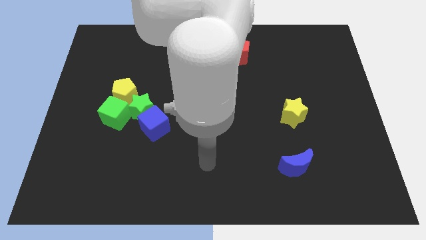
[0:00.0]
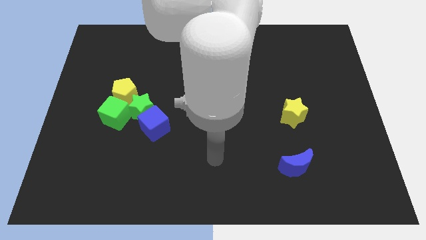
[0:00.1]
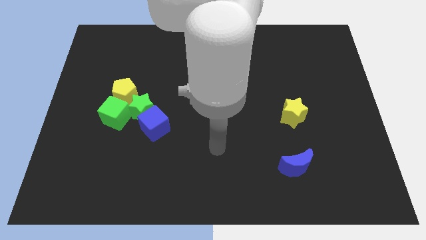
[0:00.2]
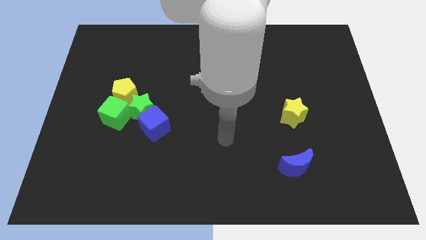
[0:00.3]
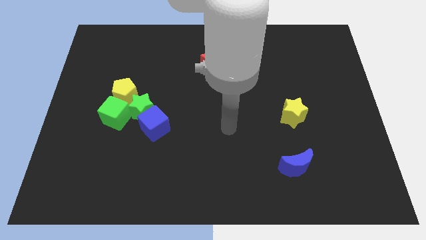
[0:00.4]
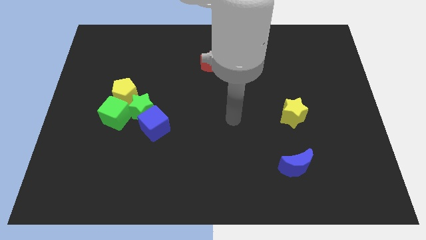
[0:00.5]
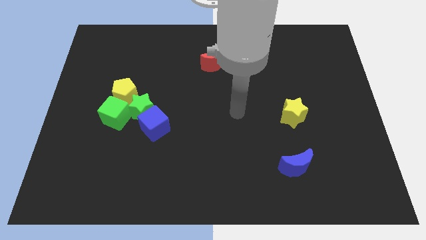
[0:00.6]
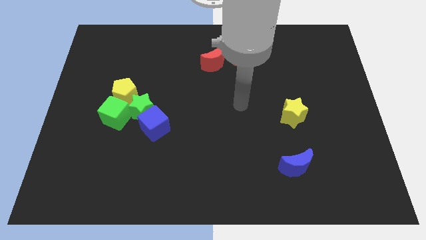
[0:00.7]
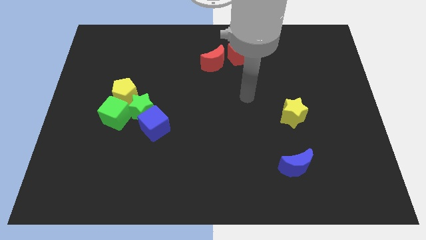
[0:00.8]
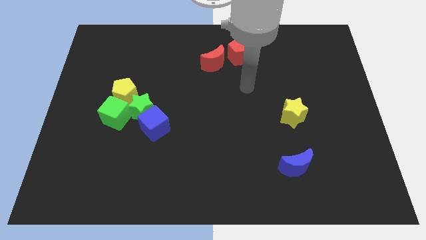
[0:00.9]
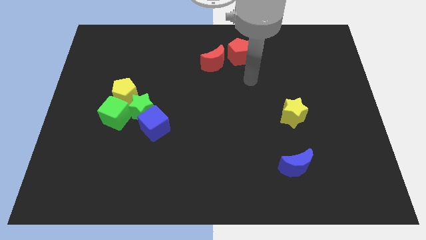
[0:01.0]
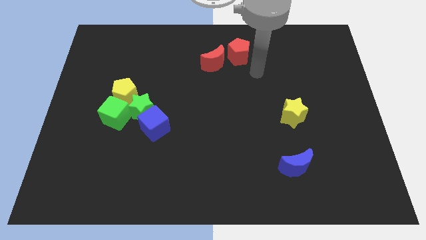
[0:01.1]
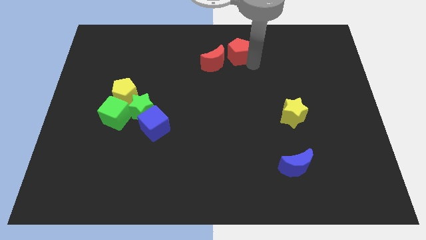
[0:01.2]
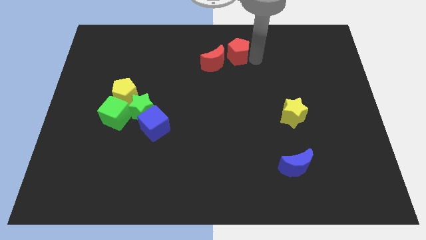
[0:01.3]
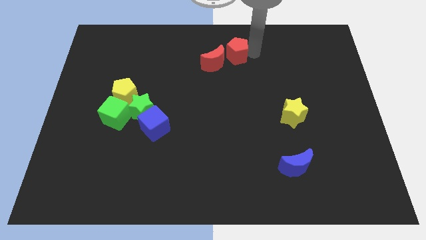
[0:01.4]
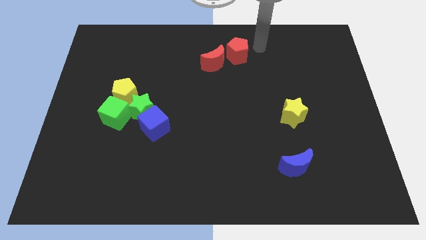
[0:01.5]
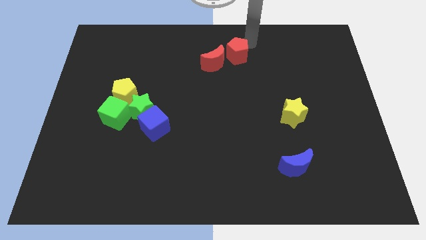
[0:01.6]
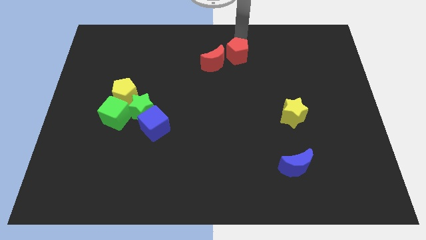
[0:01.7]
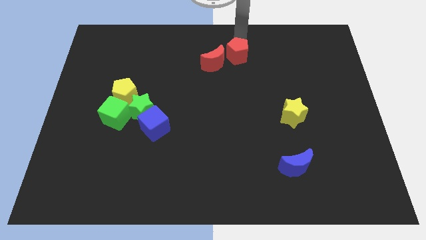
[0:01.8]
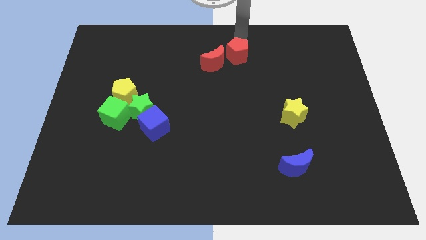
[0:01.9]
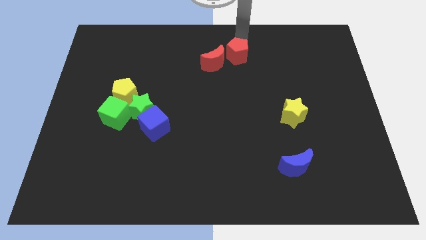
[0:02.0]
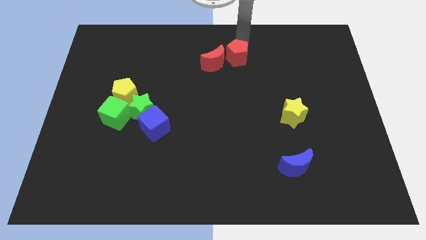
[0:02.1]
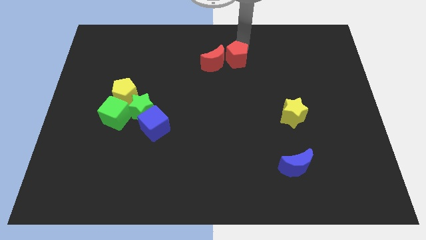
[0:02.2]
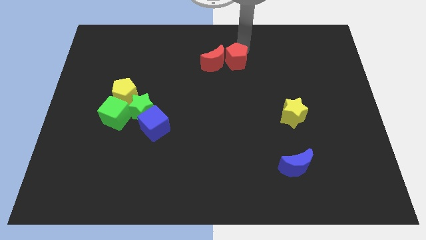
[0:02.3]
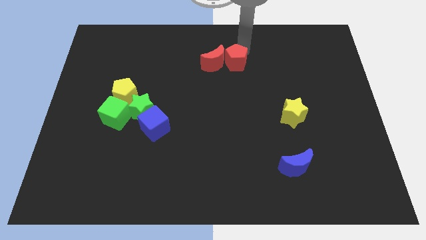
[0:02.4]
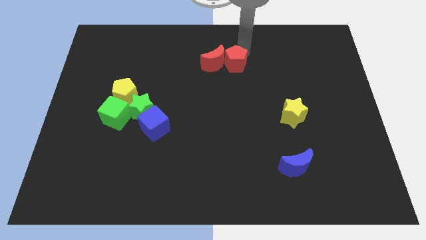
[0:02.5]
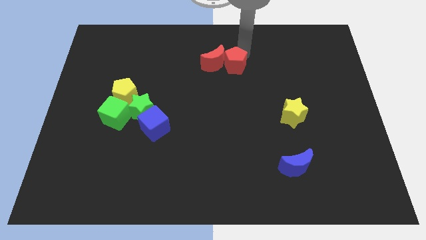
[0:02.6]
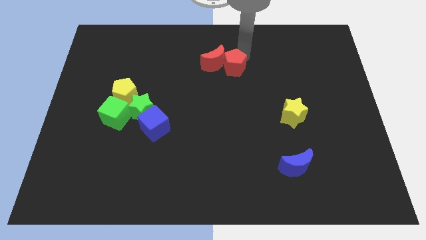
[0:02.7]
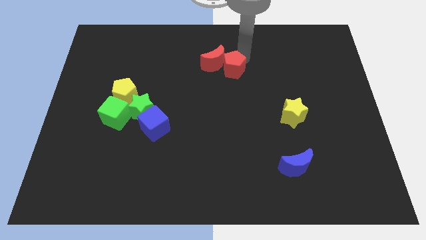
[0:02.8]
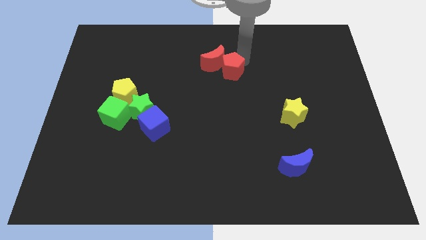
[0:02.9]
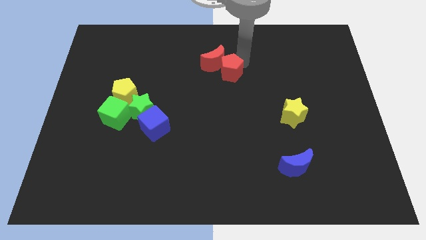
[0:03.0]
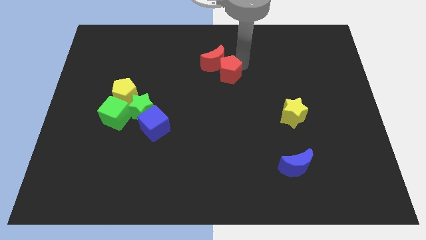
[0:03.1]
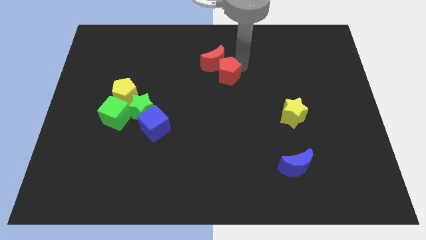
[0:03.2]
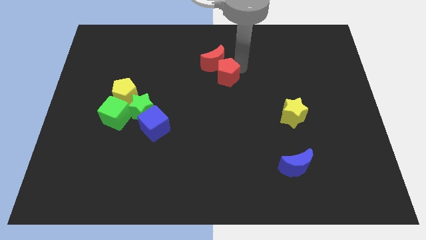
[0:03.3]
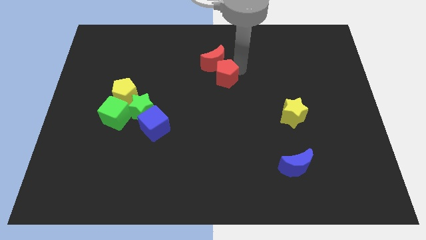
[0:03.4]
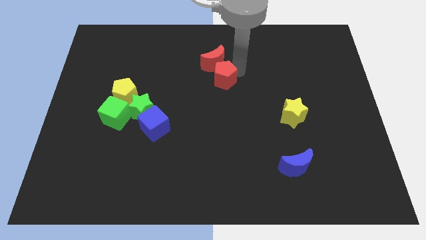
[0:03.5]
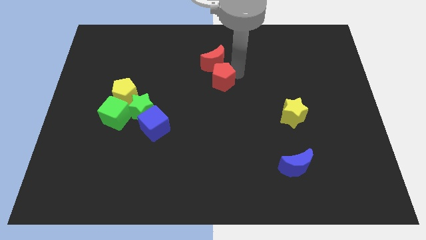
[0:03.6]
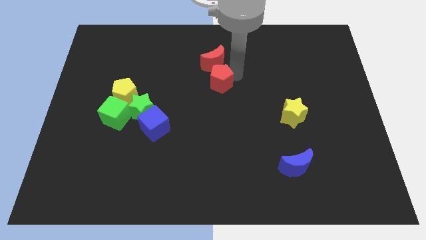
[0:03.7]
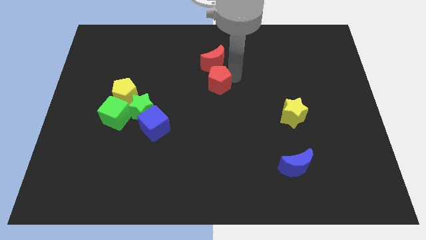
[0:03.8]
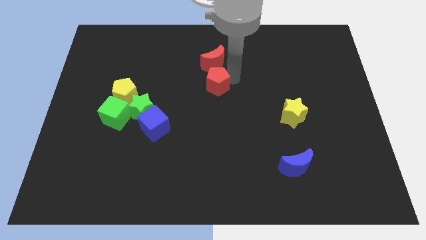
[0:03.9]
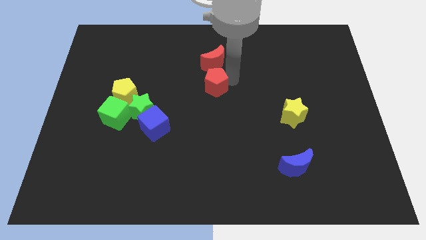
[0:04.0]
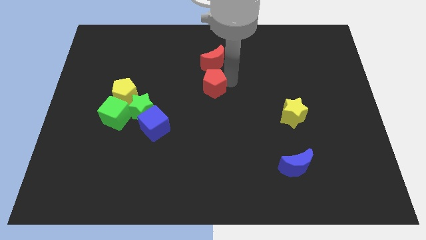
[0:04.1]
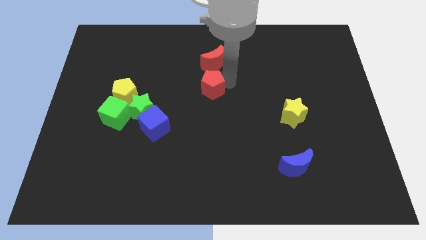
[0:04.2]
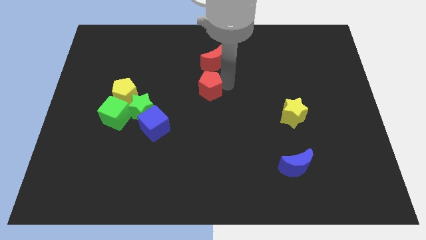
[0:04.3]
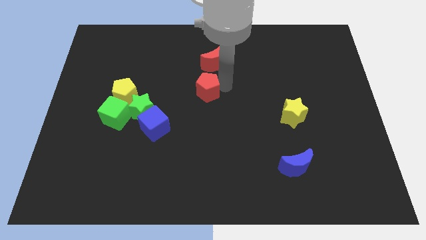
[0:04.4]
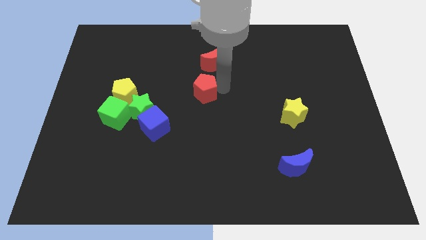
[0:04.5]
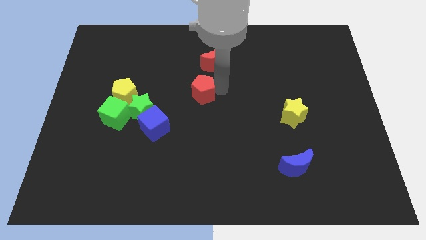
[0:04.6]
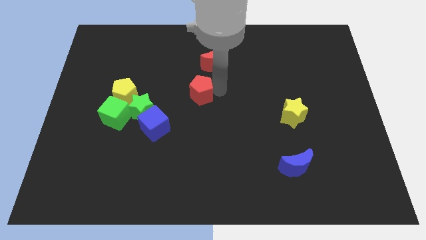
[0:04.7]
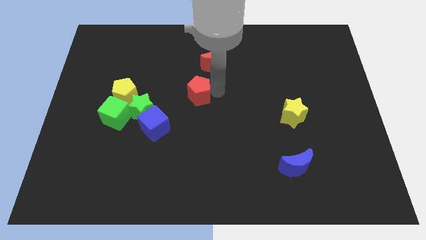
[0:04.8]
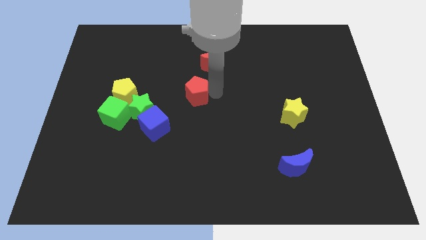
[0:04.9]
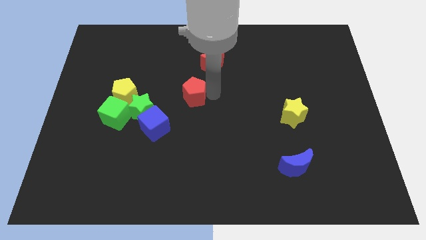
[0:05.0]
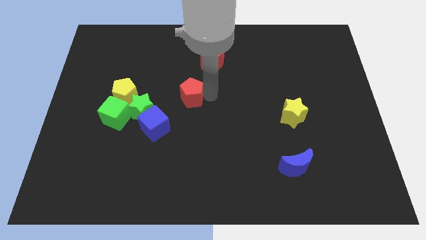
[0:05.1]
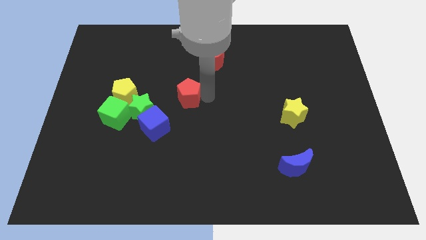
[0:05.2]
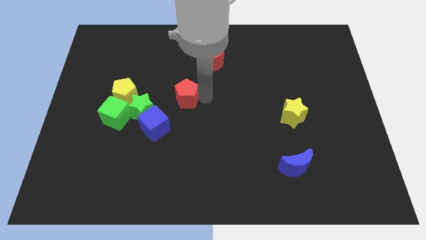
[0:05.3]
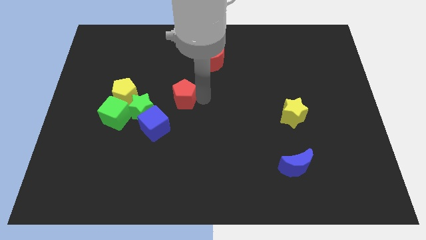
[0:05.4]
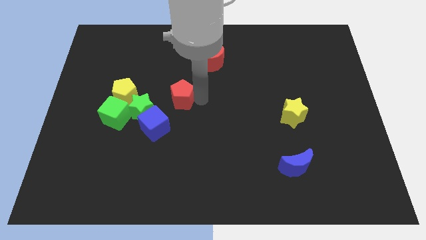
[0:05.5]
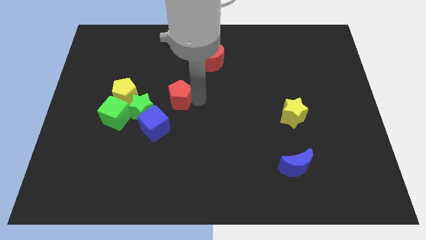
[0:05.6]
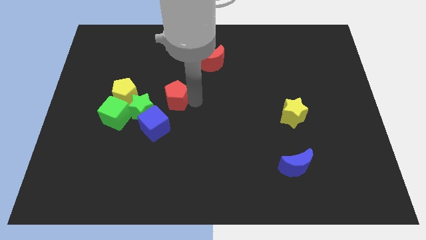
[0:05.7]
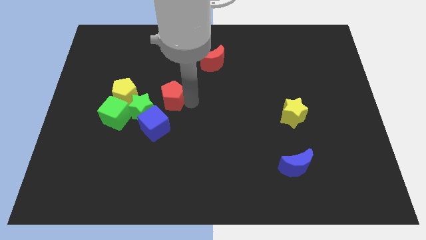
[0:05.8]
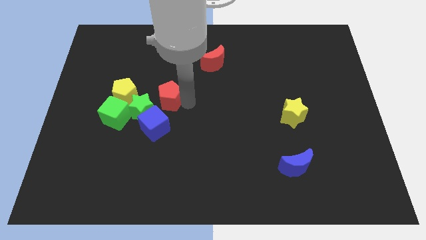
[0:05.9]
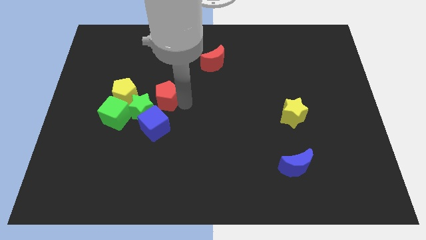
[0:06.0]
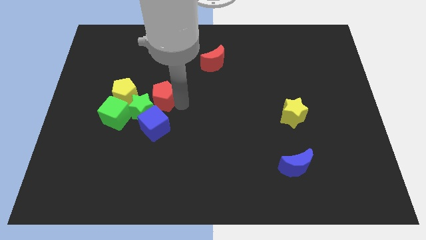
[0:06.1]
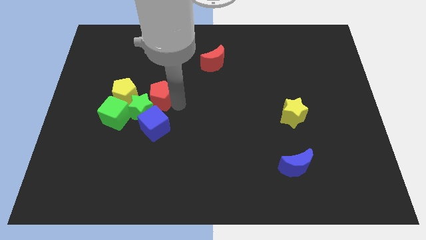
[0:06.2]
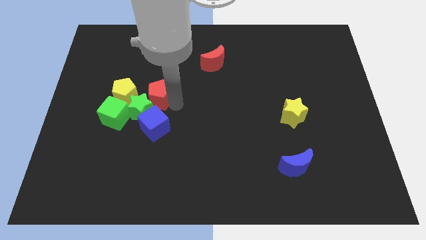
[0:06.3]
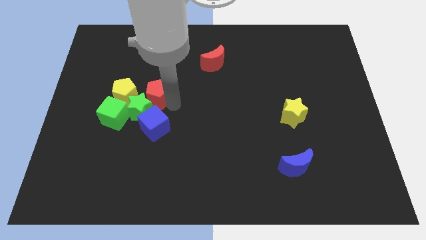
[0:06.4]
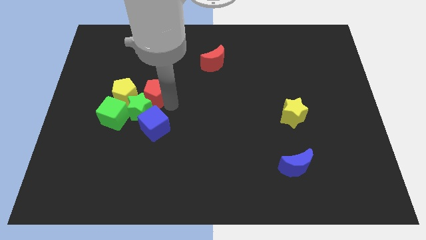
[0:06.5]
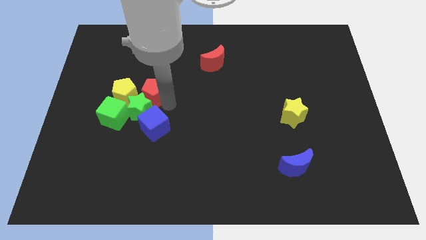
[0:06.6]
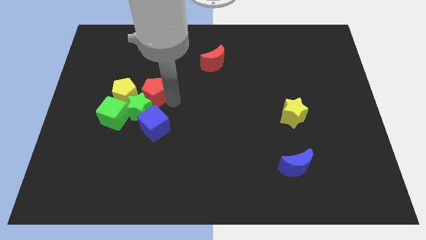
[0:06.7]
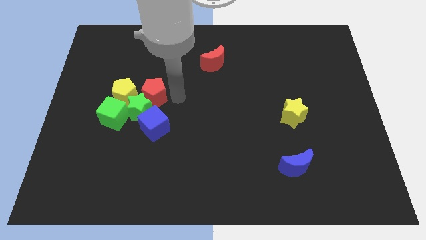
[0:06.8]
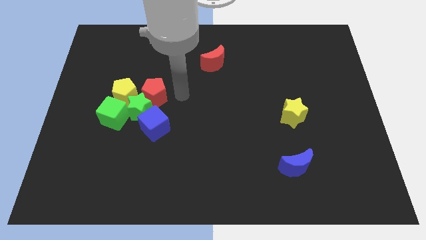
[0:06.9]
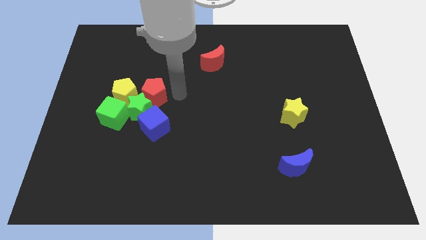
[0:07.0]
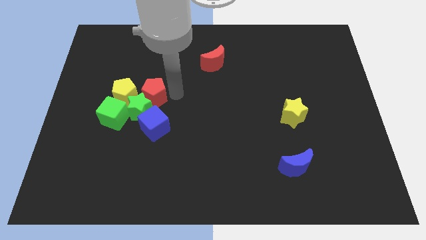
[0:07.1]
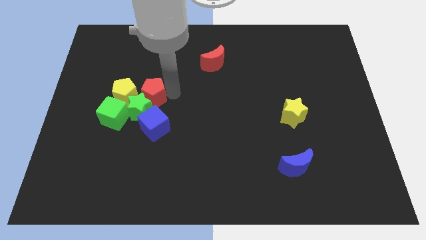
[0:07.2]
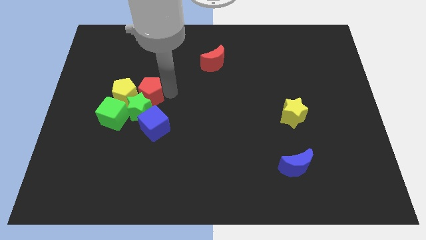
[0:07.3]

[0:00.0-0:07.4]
put the red pentagon close to the yellow pentagon
